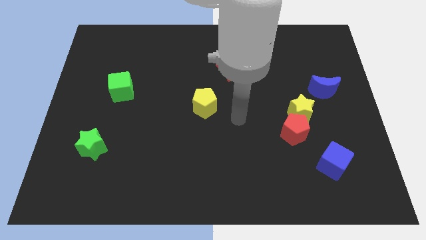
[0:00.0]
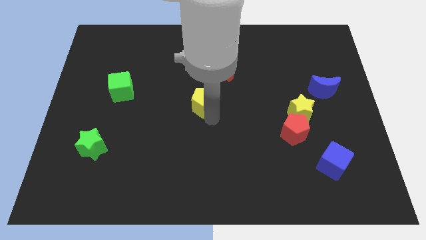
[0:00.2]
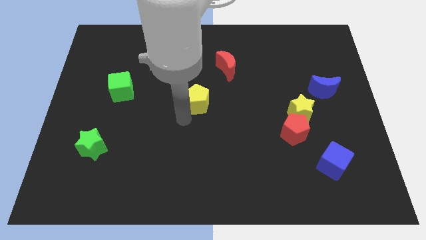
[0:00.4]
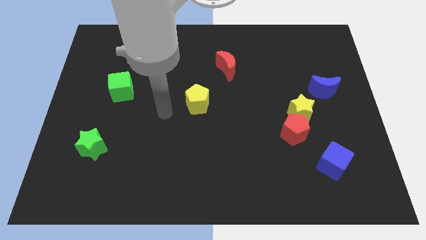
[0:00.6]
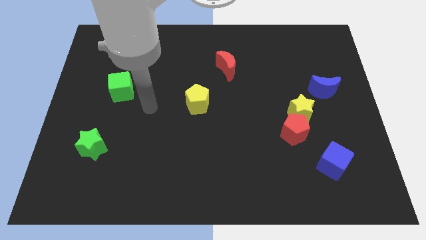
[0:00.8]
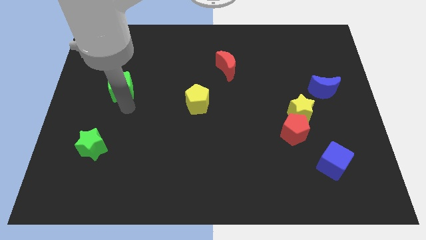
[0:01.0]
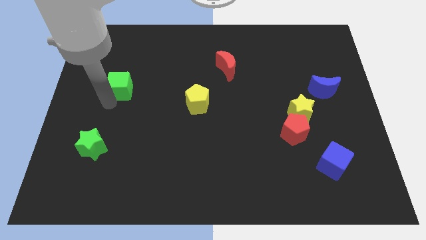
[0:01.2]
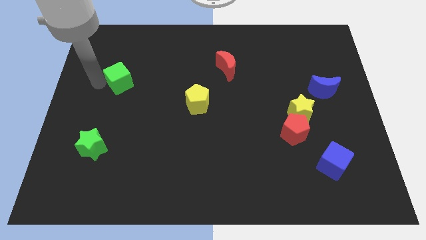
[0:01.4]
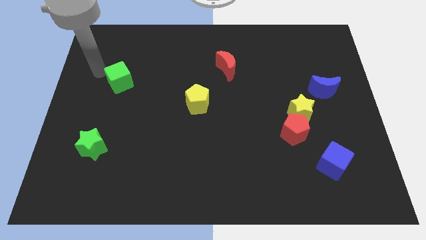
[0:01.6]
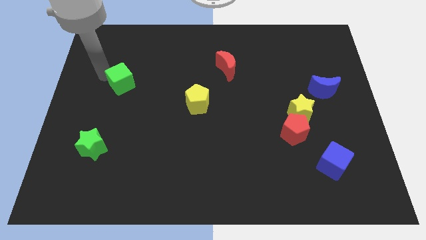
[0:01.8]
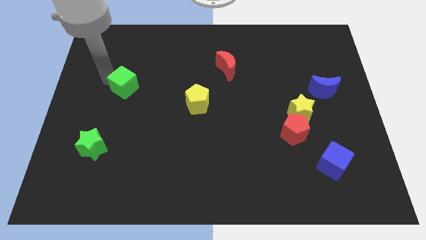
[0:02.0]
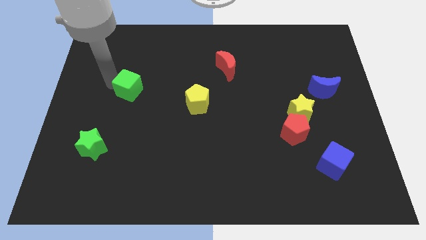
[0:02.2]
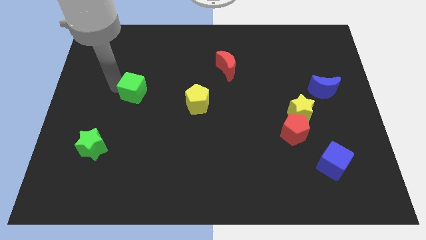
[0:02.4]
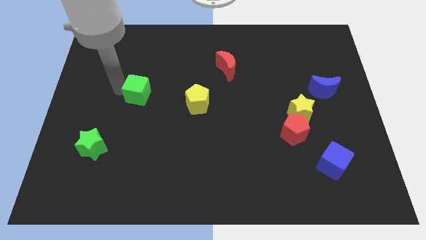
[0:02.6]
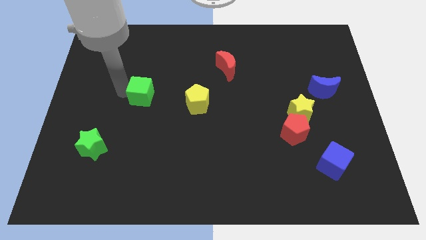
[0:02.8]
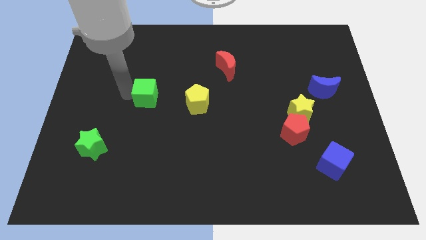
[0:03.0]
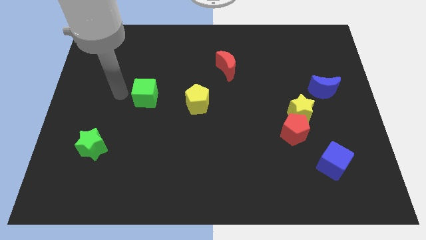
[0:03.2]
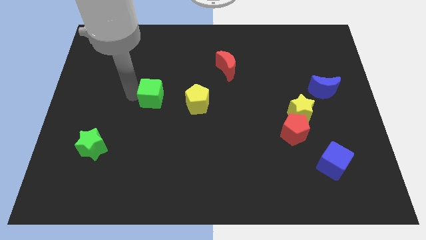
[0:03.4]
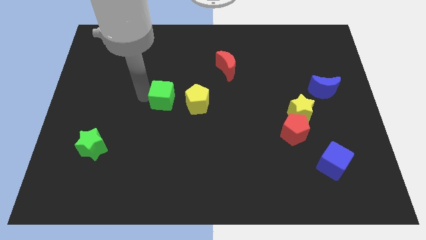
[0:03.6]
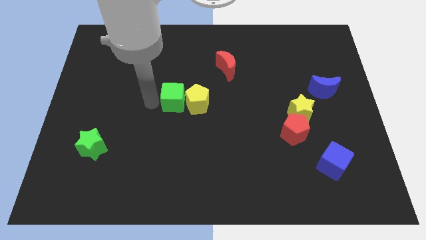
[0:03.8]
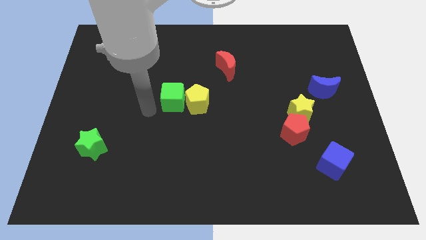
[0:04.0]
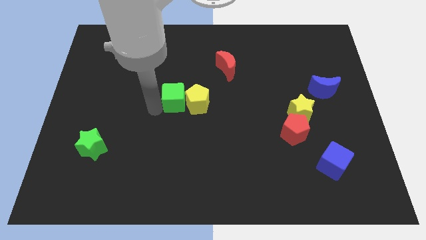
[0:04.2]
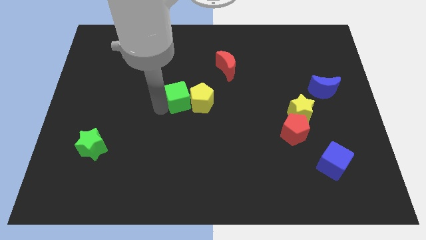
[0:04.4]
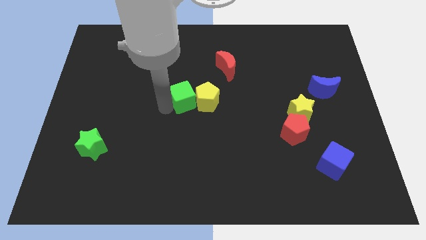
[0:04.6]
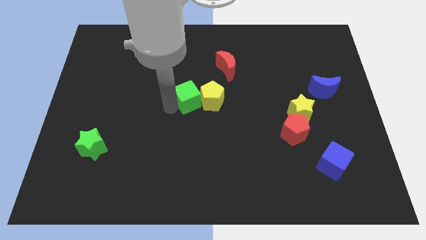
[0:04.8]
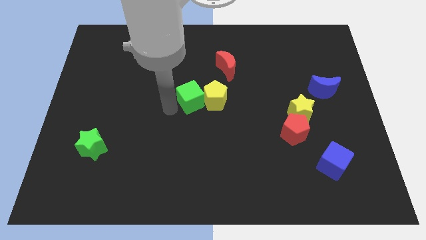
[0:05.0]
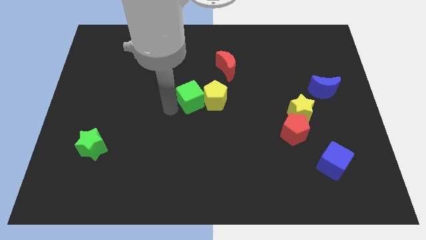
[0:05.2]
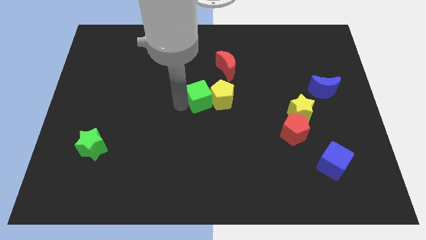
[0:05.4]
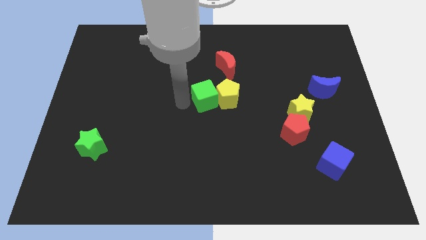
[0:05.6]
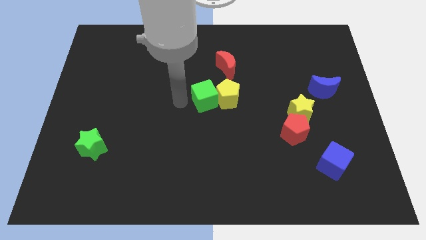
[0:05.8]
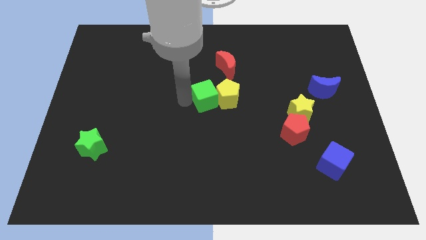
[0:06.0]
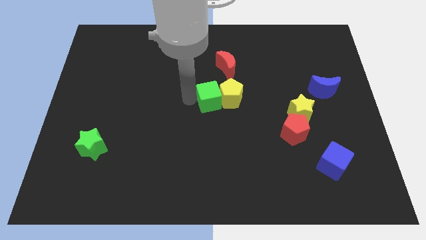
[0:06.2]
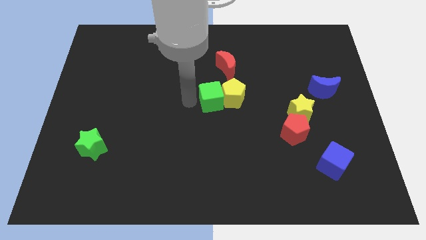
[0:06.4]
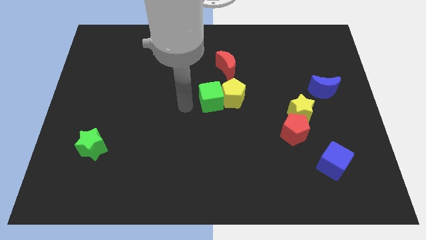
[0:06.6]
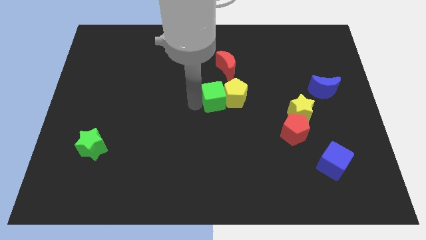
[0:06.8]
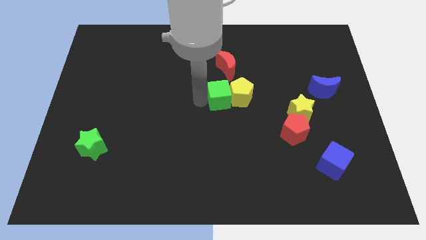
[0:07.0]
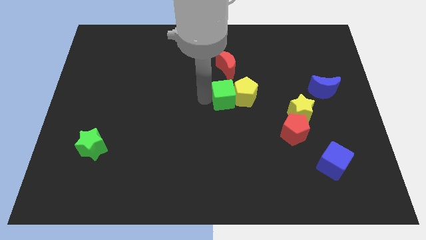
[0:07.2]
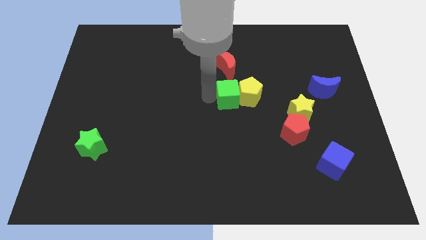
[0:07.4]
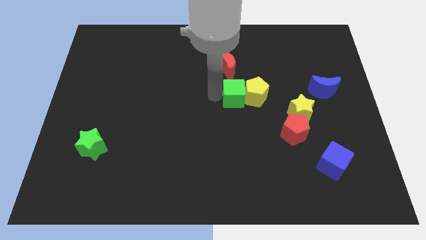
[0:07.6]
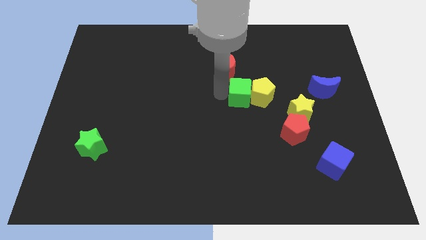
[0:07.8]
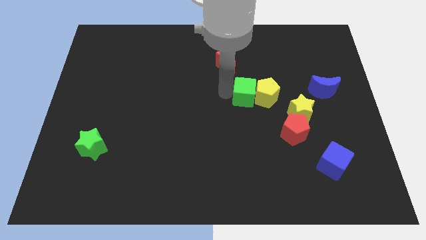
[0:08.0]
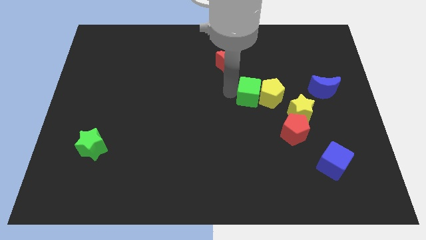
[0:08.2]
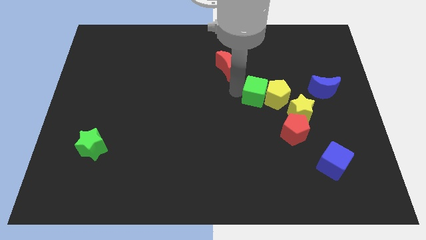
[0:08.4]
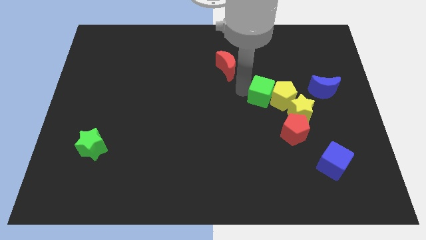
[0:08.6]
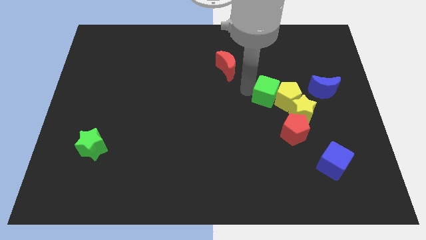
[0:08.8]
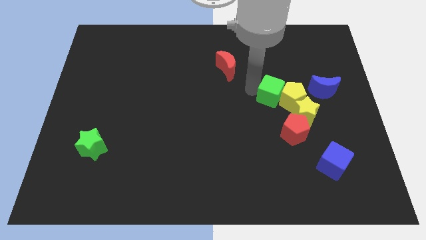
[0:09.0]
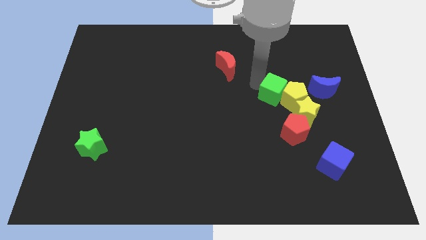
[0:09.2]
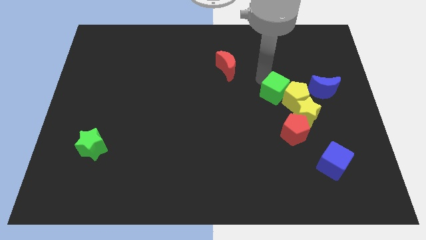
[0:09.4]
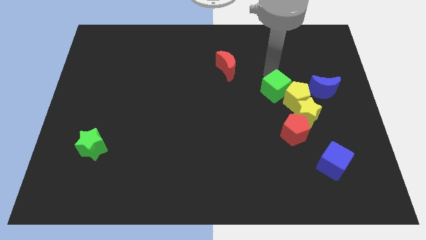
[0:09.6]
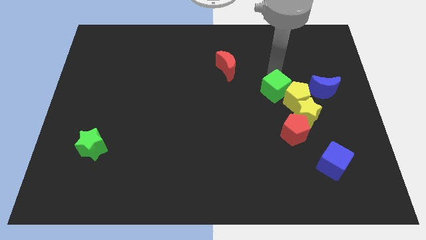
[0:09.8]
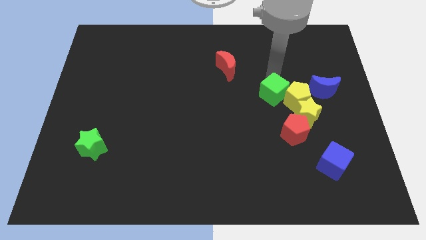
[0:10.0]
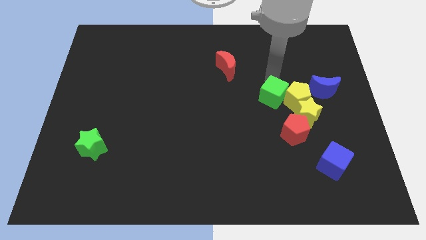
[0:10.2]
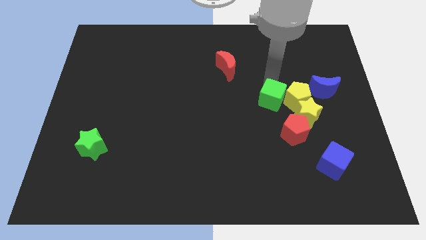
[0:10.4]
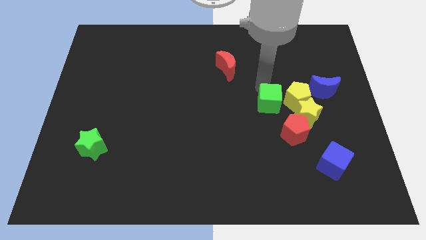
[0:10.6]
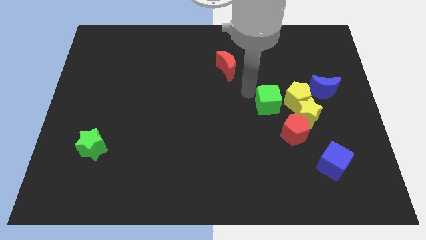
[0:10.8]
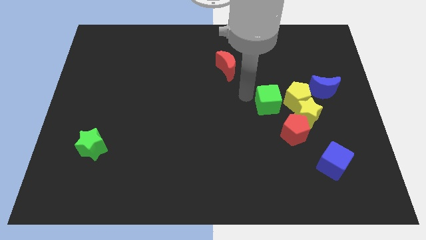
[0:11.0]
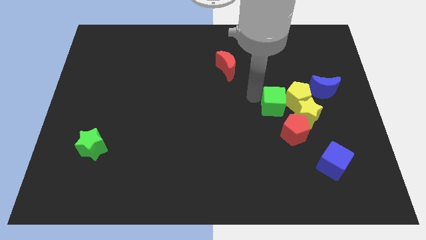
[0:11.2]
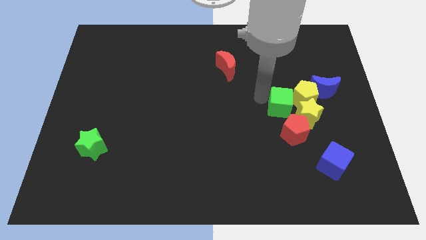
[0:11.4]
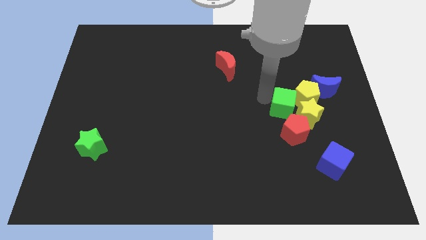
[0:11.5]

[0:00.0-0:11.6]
push the green cube next to the yellow star
